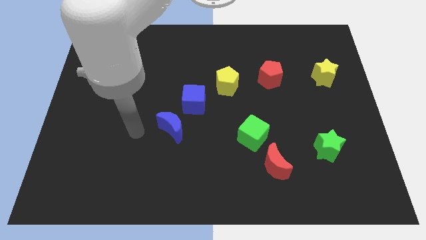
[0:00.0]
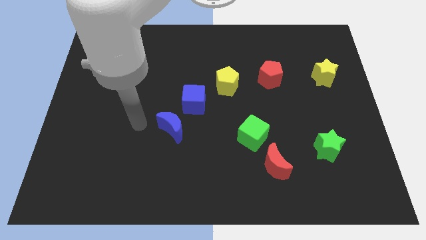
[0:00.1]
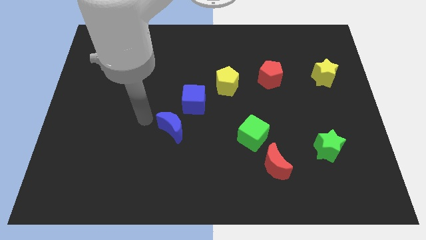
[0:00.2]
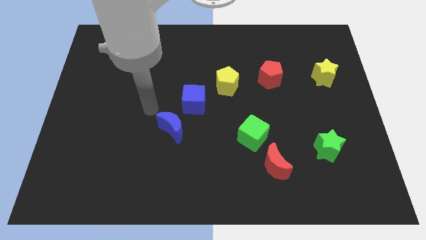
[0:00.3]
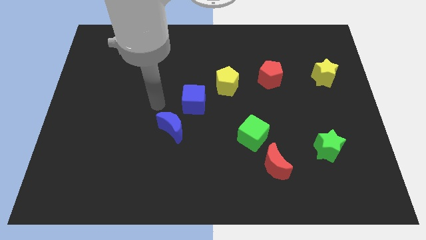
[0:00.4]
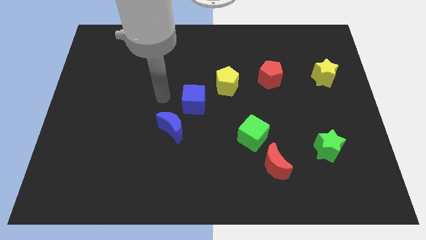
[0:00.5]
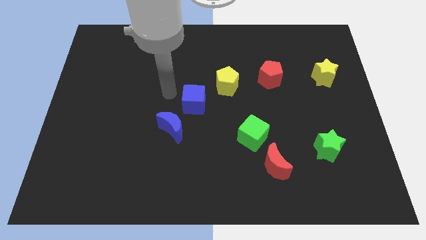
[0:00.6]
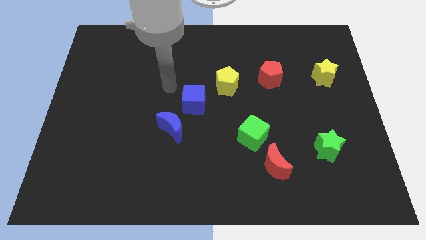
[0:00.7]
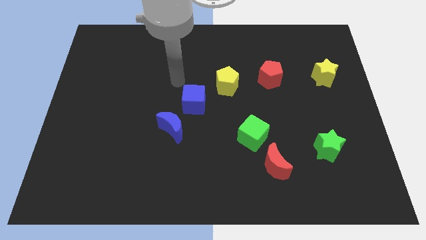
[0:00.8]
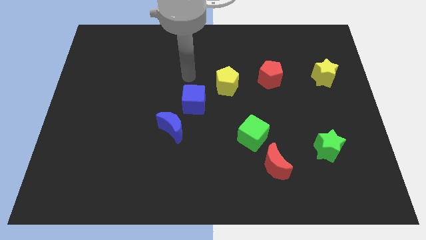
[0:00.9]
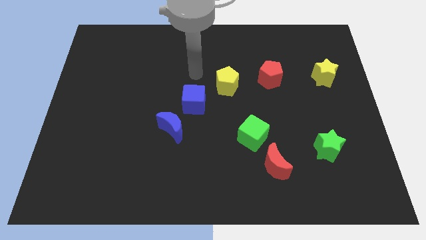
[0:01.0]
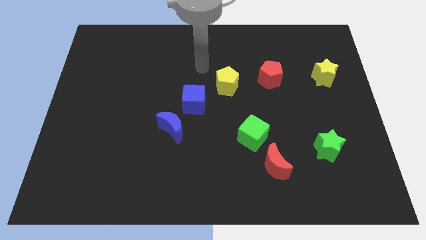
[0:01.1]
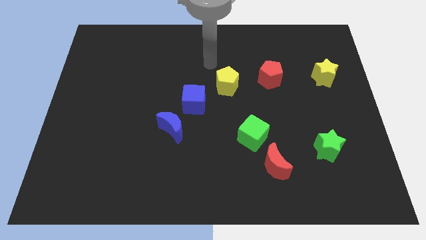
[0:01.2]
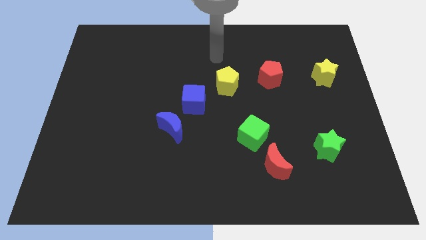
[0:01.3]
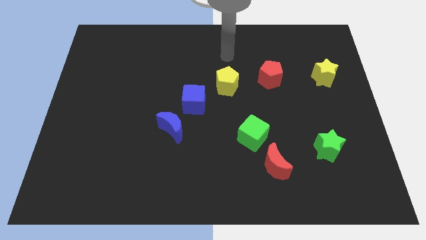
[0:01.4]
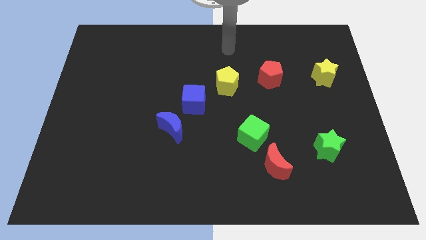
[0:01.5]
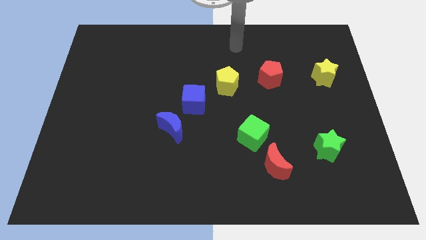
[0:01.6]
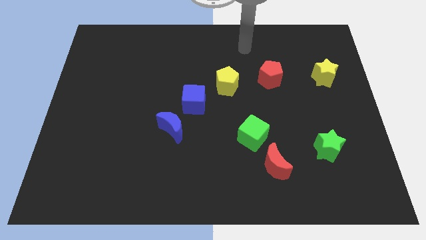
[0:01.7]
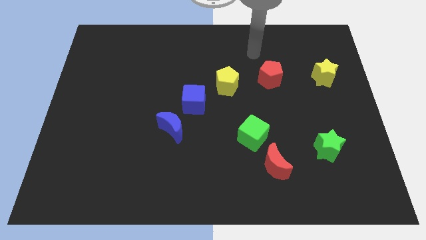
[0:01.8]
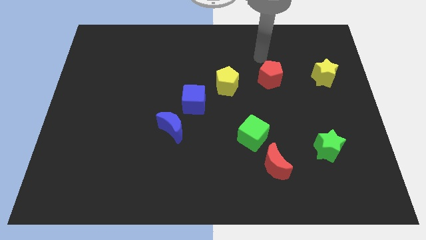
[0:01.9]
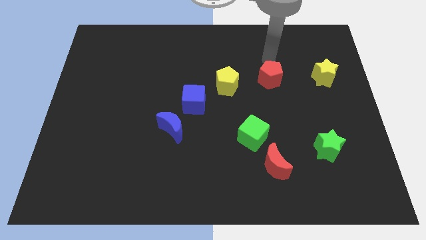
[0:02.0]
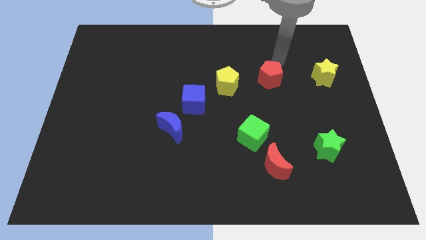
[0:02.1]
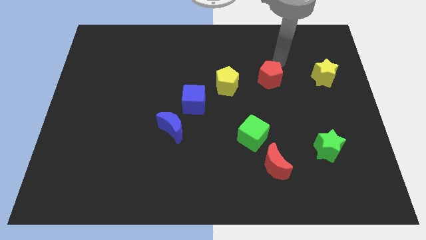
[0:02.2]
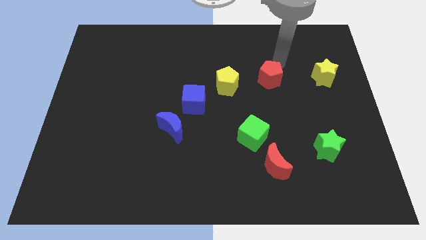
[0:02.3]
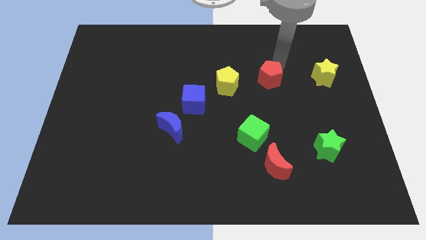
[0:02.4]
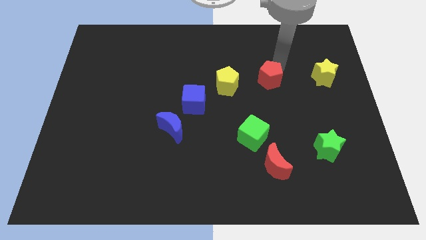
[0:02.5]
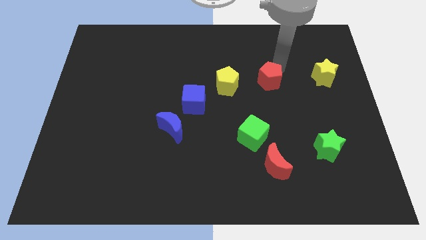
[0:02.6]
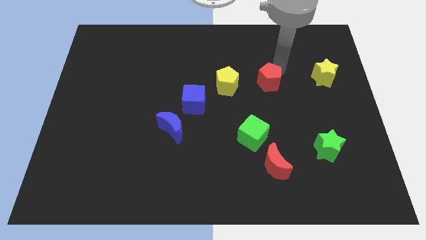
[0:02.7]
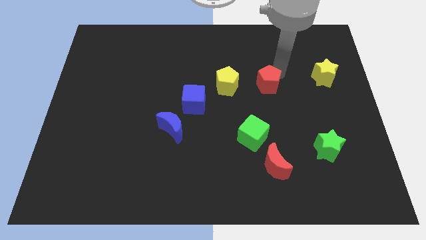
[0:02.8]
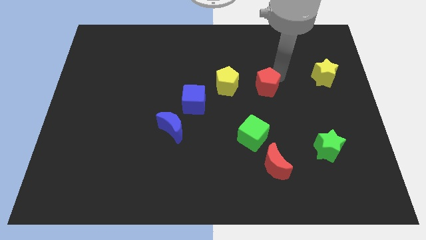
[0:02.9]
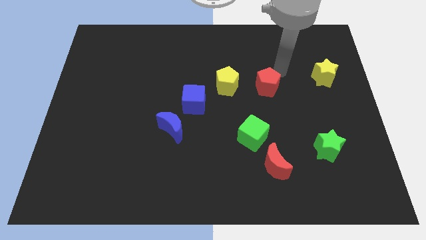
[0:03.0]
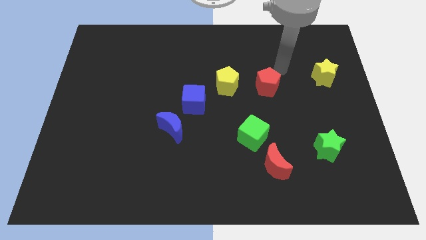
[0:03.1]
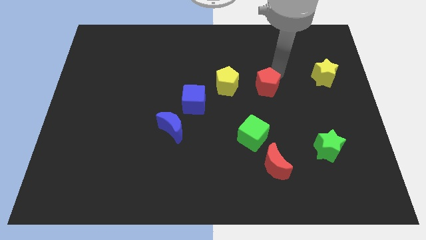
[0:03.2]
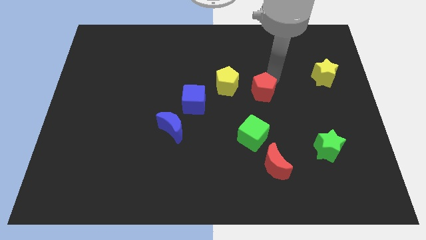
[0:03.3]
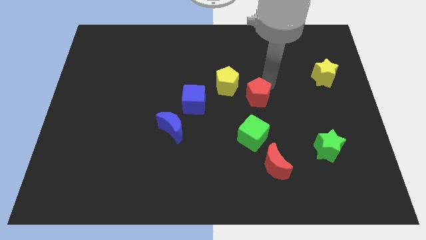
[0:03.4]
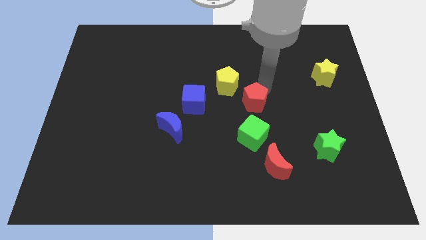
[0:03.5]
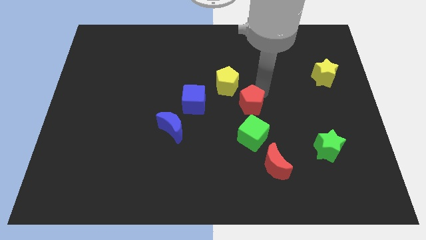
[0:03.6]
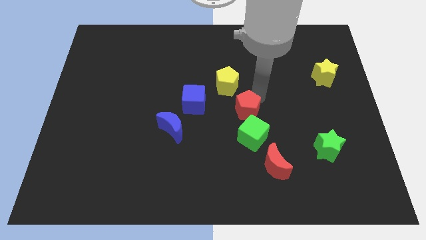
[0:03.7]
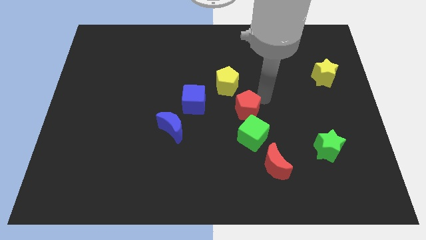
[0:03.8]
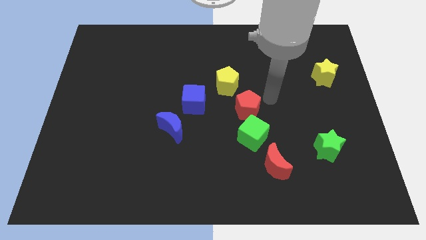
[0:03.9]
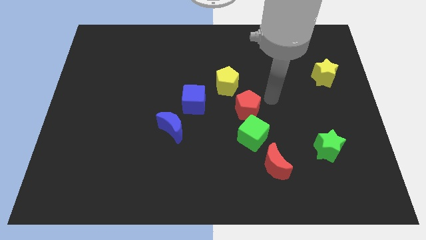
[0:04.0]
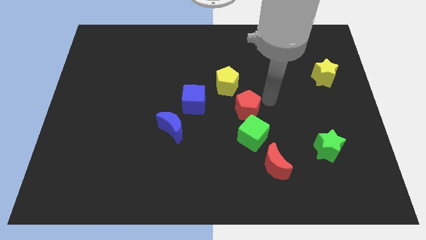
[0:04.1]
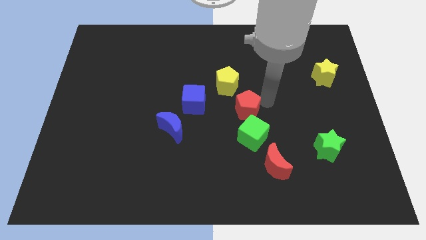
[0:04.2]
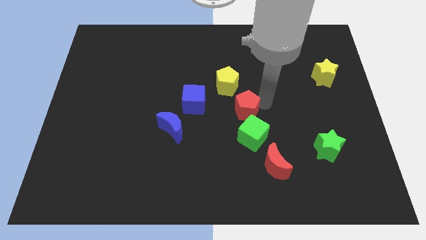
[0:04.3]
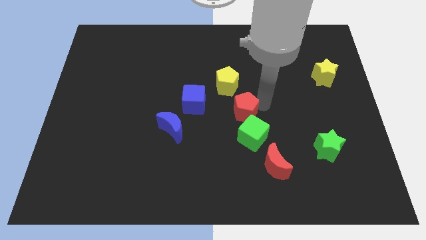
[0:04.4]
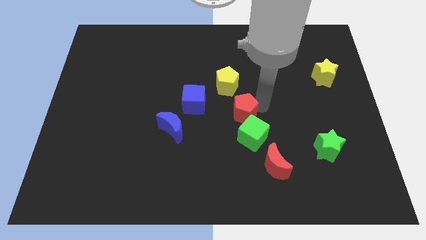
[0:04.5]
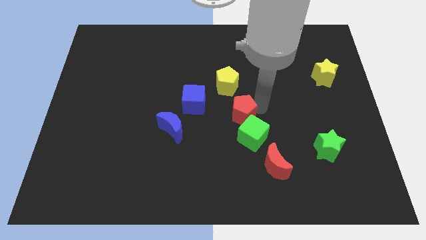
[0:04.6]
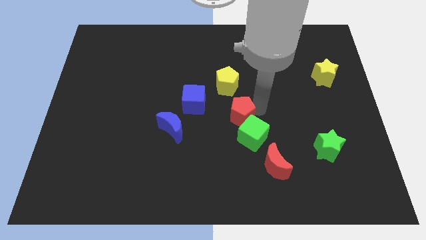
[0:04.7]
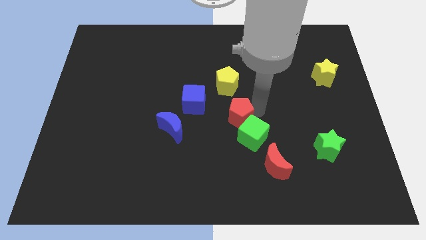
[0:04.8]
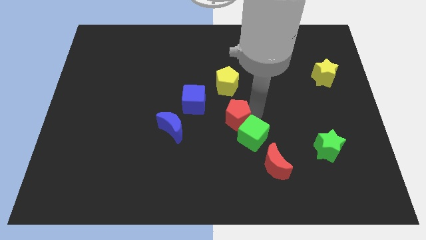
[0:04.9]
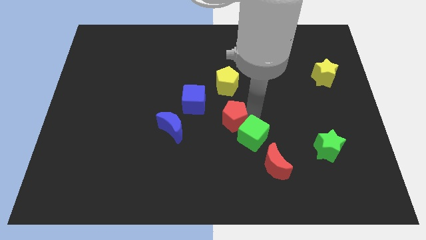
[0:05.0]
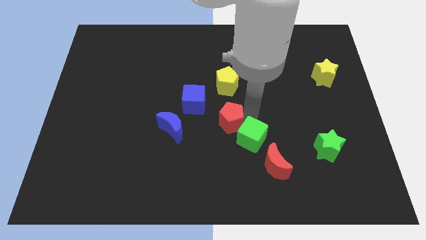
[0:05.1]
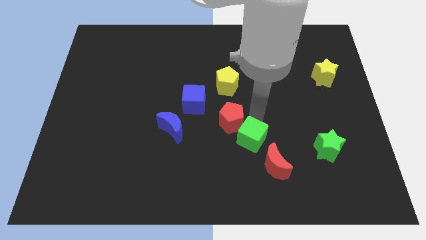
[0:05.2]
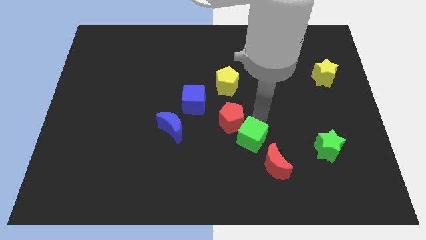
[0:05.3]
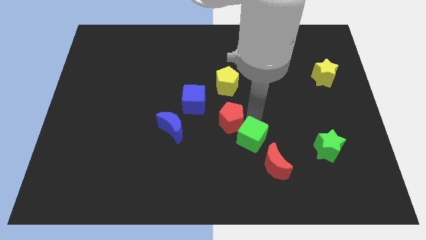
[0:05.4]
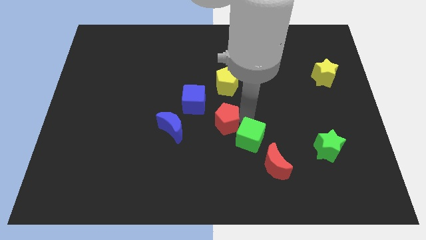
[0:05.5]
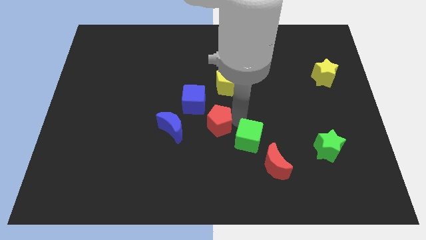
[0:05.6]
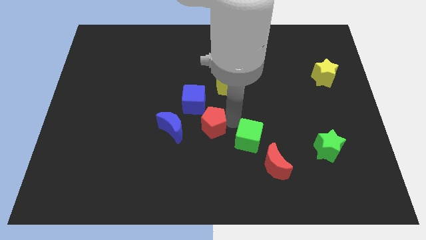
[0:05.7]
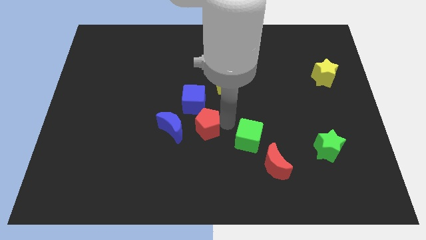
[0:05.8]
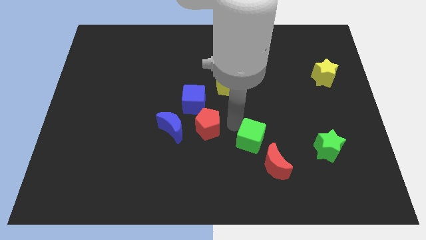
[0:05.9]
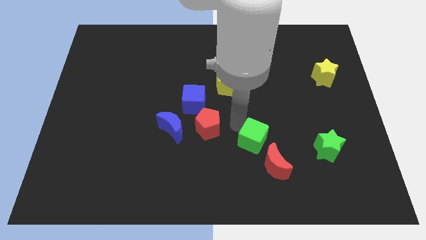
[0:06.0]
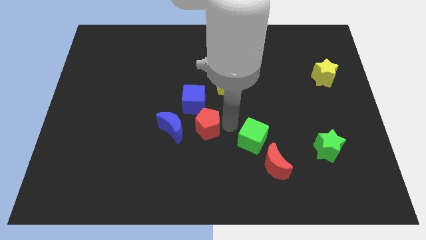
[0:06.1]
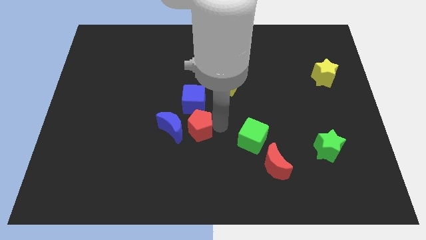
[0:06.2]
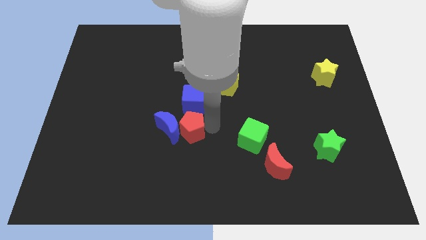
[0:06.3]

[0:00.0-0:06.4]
slide the red pentagon towards the blue moon
